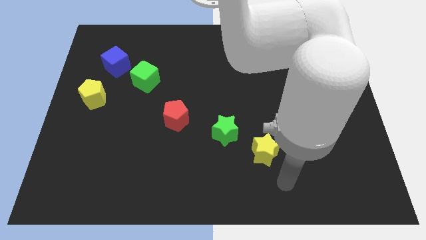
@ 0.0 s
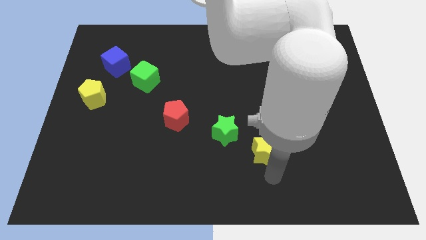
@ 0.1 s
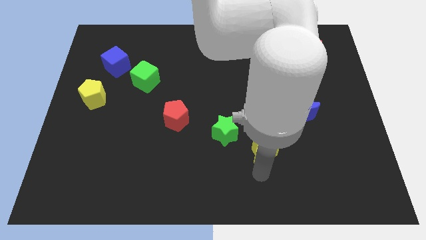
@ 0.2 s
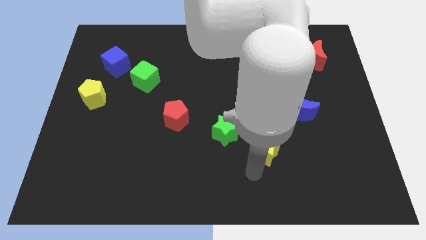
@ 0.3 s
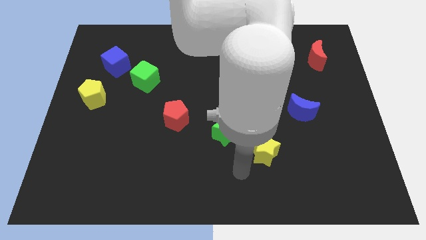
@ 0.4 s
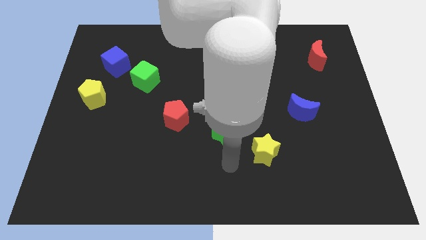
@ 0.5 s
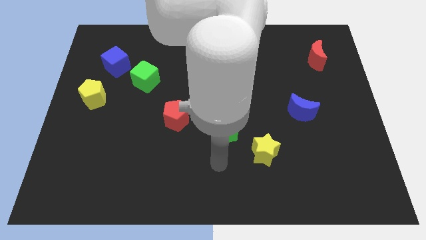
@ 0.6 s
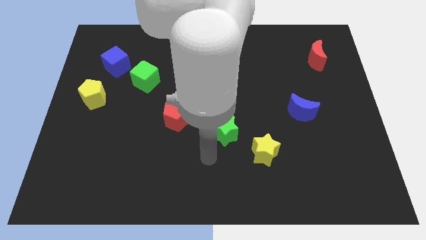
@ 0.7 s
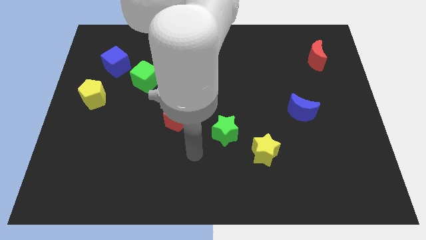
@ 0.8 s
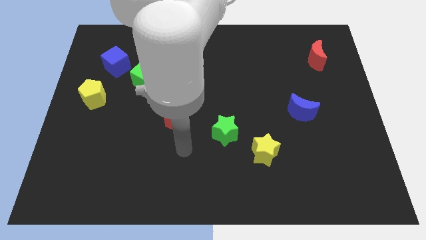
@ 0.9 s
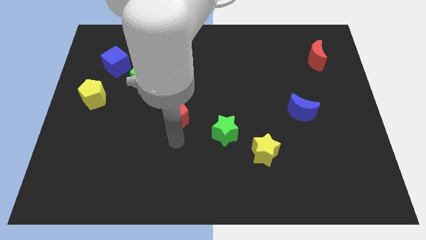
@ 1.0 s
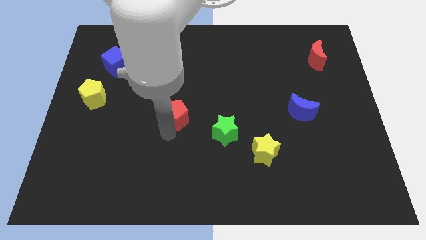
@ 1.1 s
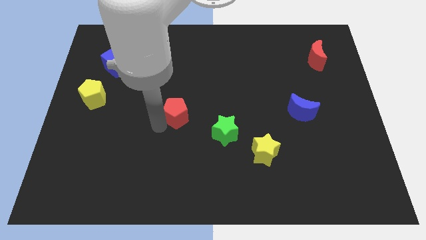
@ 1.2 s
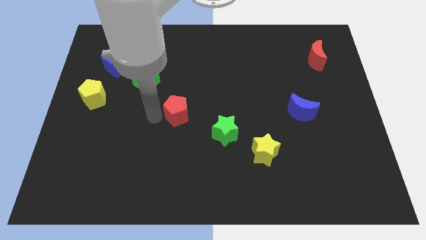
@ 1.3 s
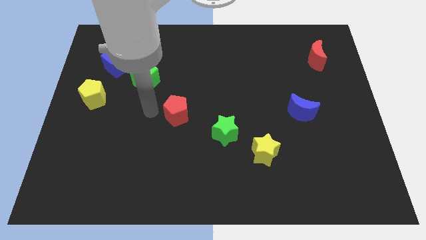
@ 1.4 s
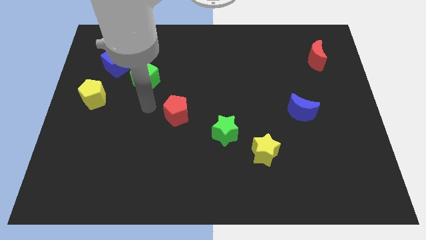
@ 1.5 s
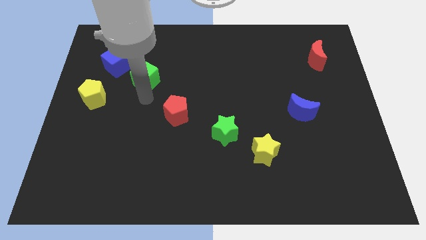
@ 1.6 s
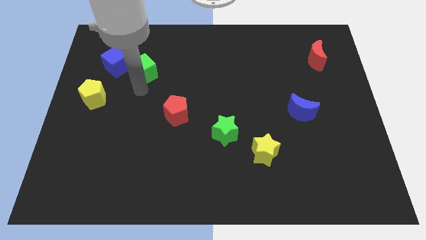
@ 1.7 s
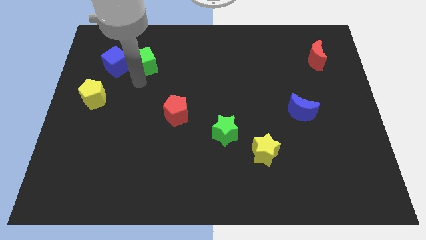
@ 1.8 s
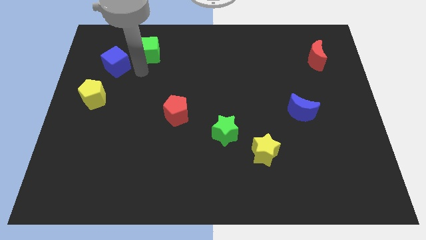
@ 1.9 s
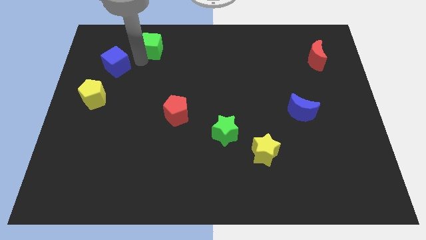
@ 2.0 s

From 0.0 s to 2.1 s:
move the blue cube away from the green cube

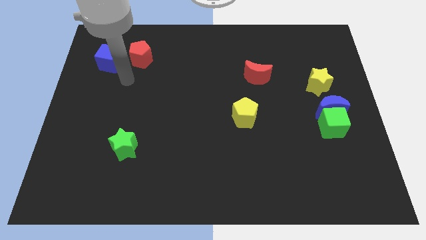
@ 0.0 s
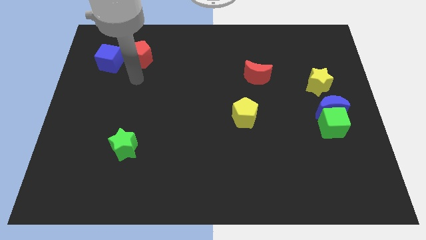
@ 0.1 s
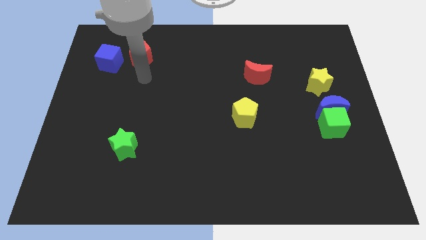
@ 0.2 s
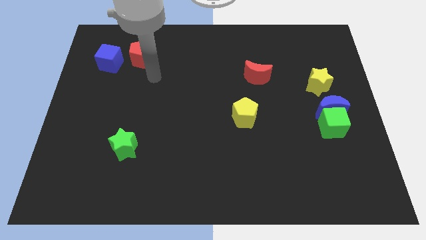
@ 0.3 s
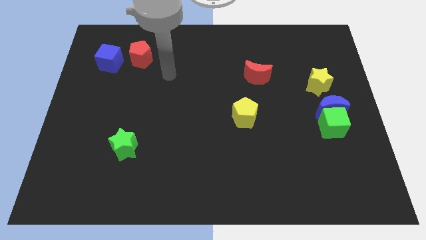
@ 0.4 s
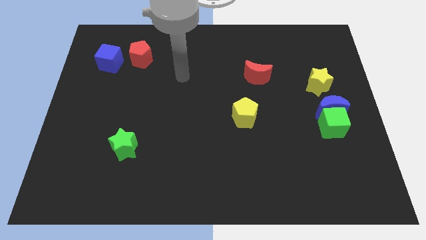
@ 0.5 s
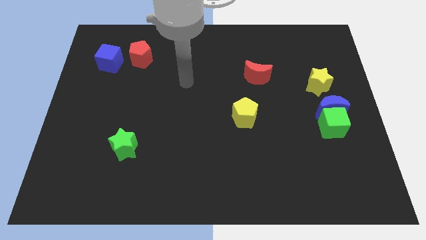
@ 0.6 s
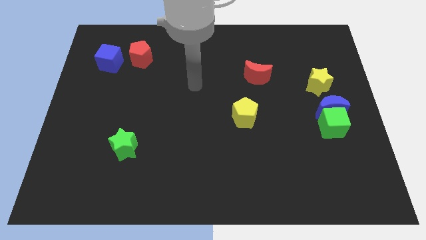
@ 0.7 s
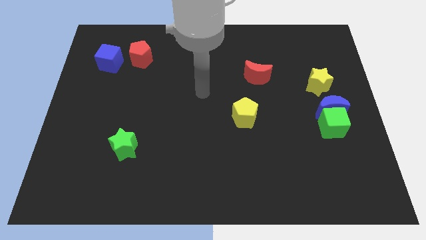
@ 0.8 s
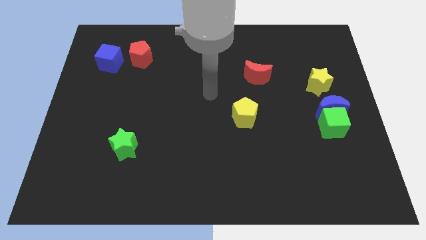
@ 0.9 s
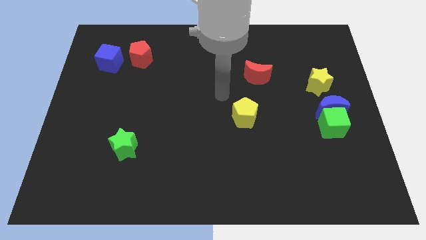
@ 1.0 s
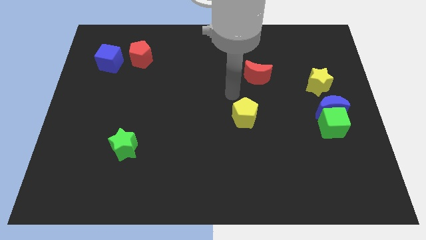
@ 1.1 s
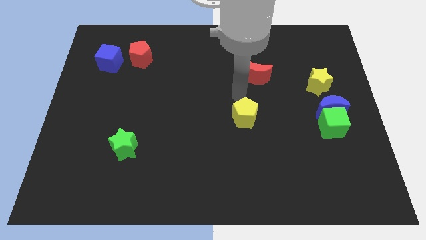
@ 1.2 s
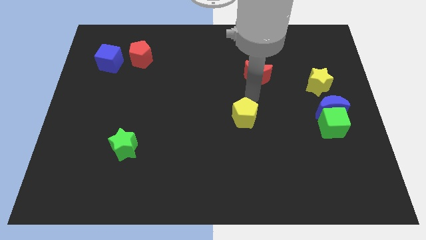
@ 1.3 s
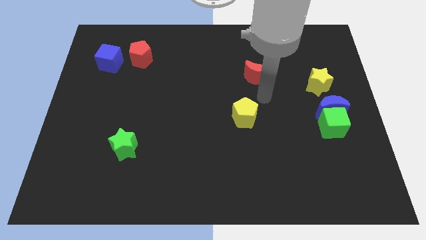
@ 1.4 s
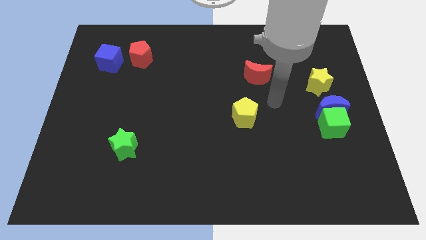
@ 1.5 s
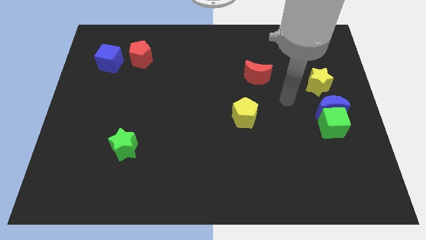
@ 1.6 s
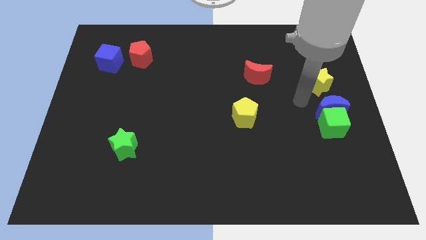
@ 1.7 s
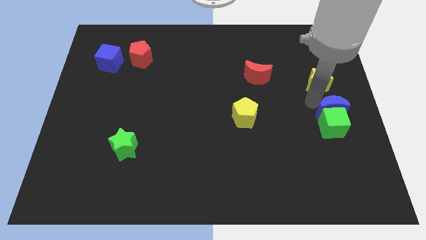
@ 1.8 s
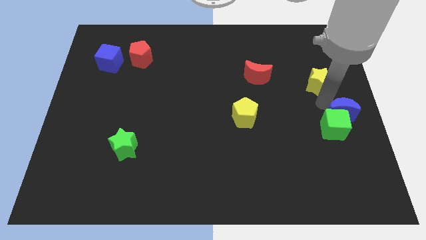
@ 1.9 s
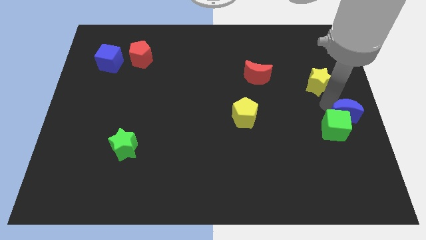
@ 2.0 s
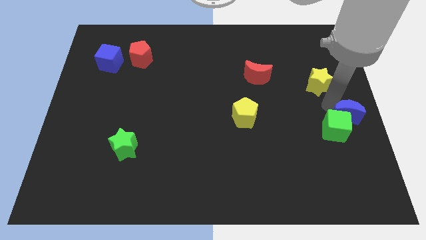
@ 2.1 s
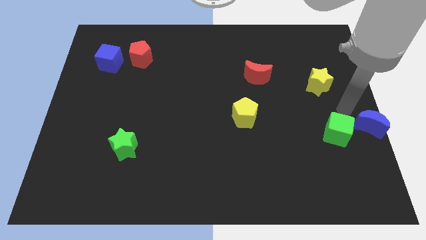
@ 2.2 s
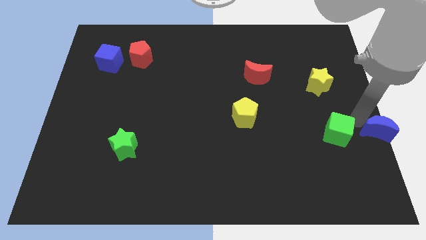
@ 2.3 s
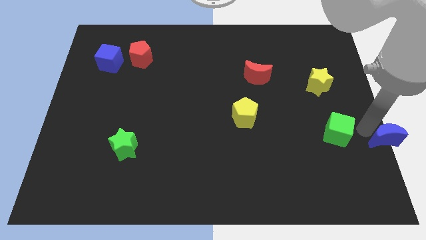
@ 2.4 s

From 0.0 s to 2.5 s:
pull the green cube apart from the blue moon

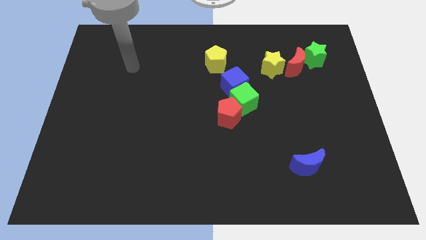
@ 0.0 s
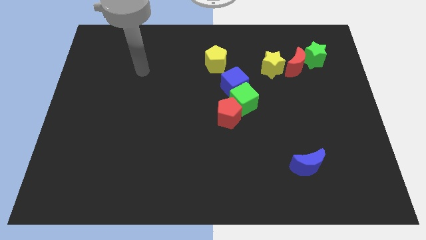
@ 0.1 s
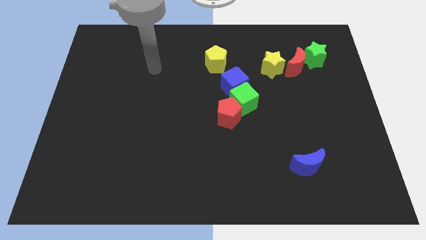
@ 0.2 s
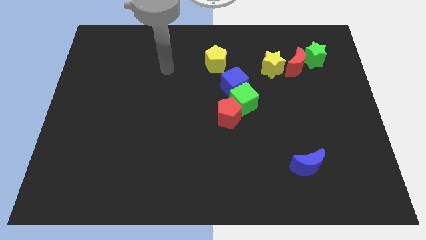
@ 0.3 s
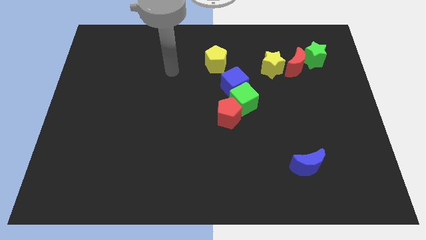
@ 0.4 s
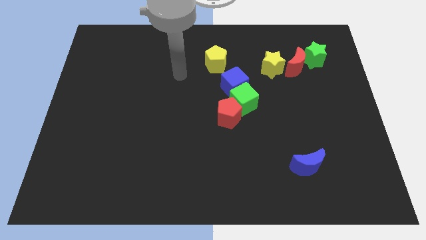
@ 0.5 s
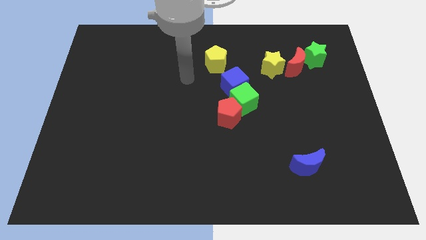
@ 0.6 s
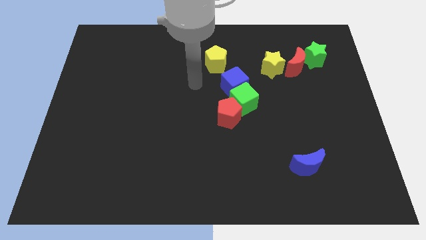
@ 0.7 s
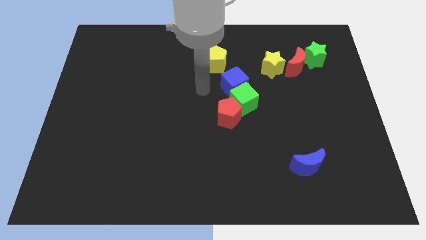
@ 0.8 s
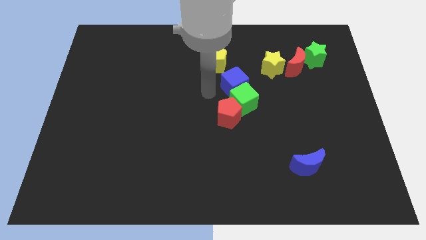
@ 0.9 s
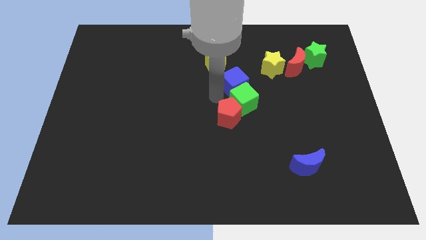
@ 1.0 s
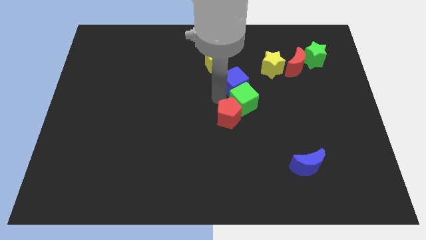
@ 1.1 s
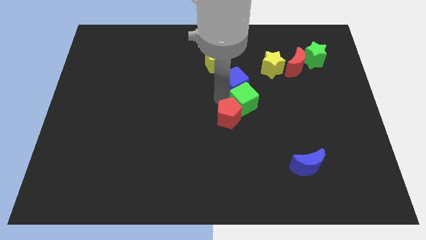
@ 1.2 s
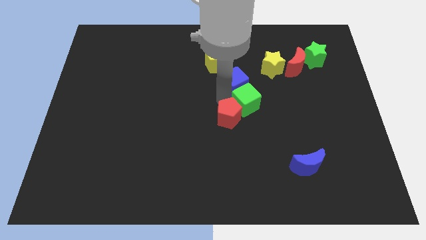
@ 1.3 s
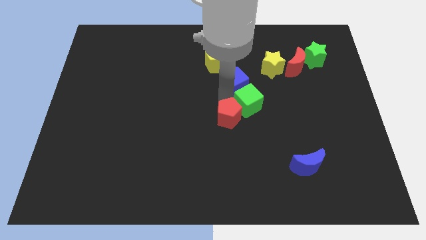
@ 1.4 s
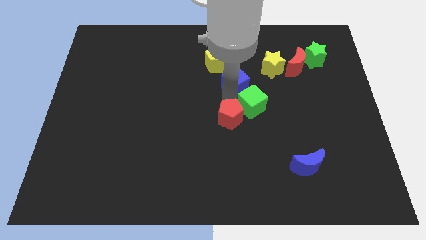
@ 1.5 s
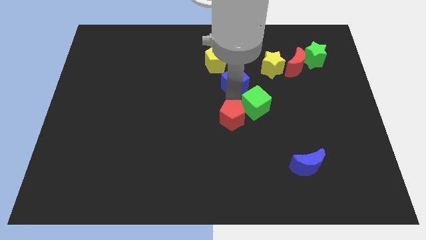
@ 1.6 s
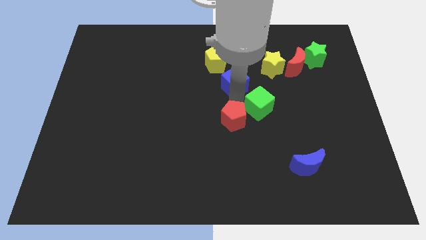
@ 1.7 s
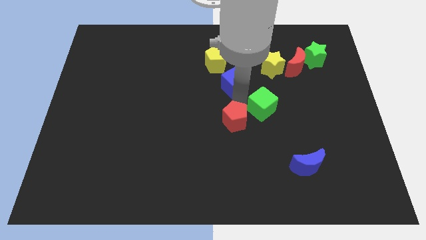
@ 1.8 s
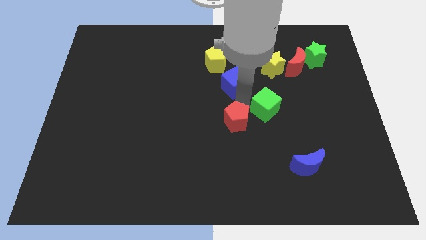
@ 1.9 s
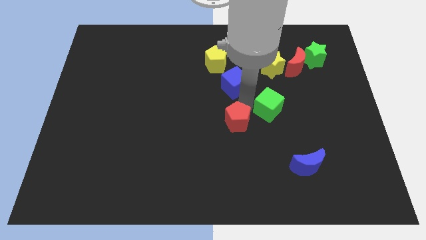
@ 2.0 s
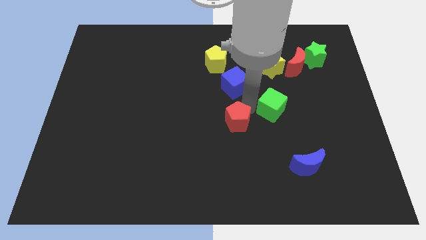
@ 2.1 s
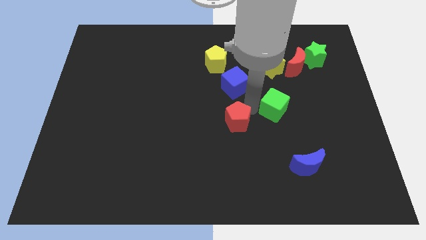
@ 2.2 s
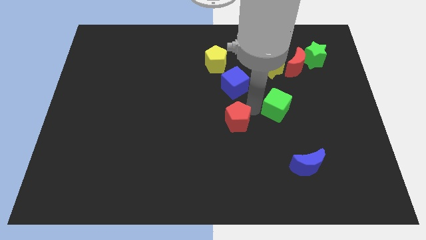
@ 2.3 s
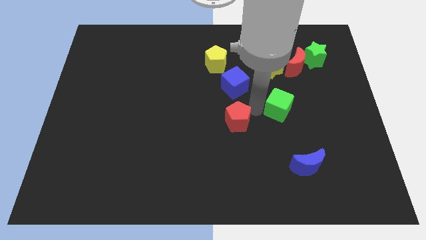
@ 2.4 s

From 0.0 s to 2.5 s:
move the green cube away from the red pentagon and blue cube

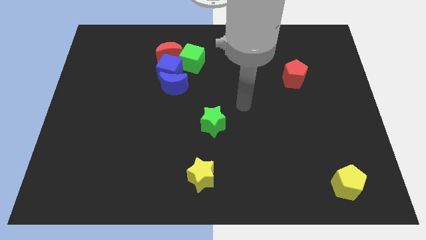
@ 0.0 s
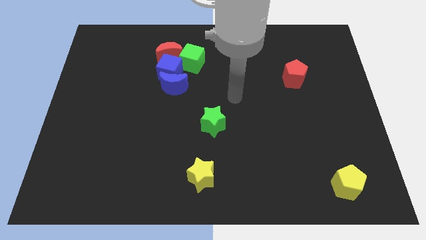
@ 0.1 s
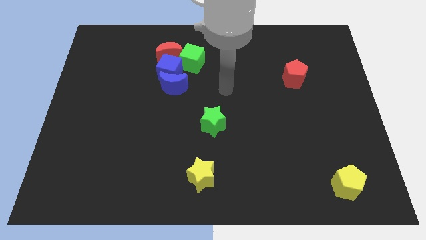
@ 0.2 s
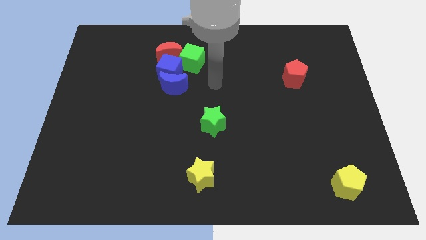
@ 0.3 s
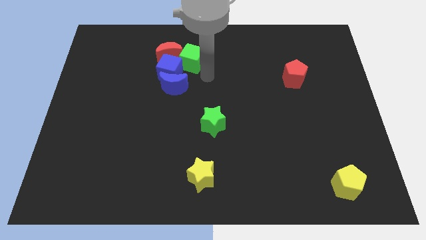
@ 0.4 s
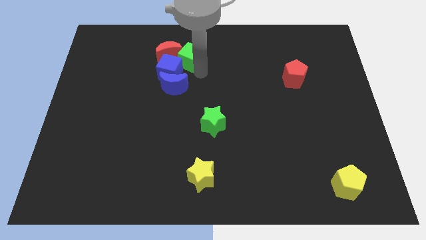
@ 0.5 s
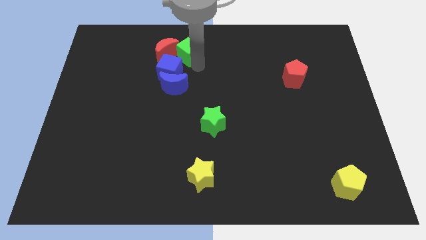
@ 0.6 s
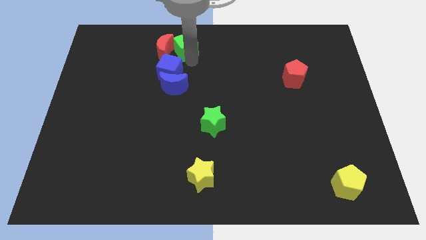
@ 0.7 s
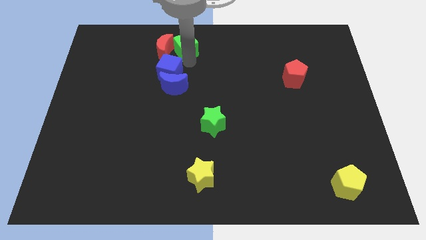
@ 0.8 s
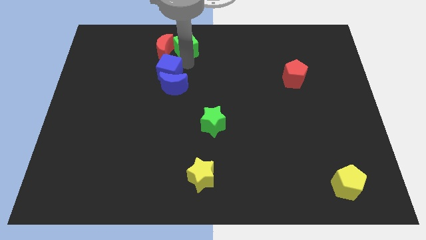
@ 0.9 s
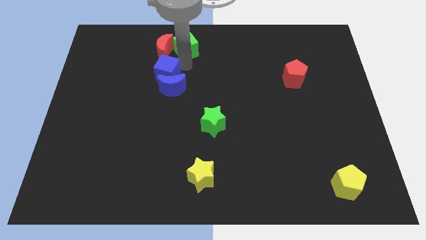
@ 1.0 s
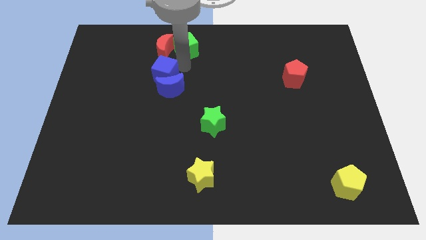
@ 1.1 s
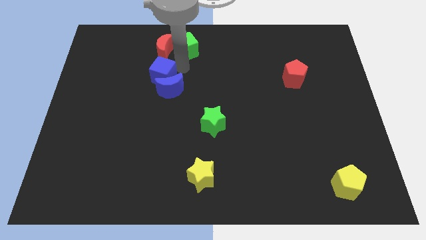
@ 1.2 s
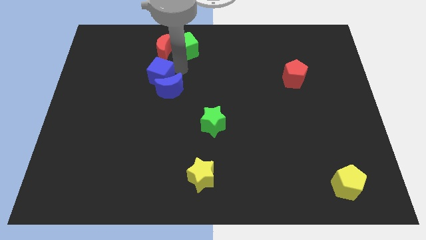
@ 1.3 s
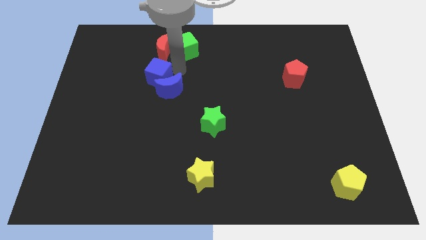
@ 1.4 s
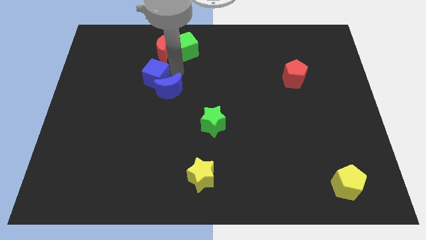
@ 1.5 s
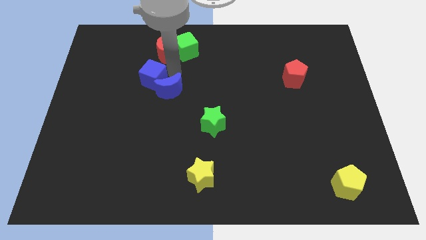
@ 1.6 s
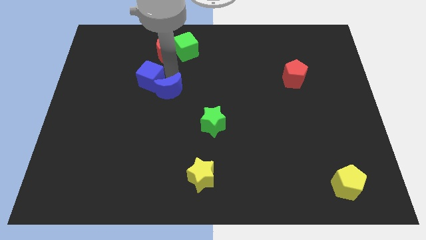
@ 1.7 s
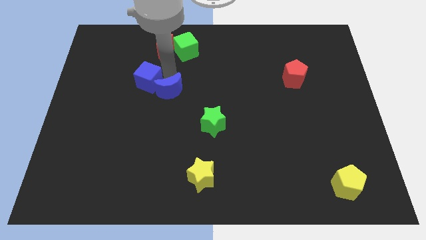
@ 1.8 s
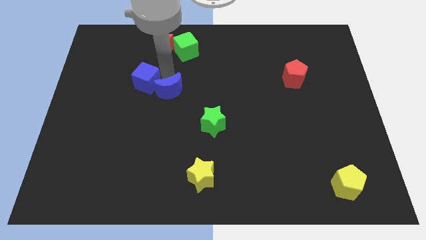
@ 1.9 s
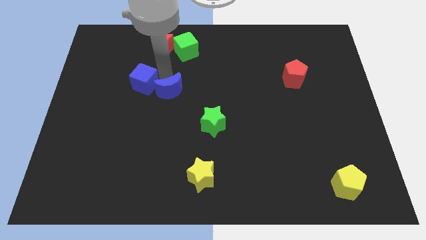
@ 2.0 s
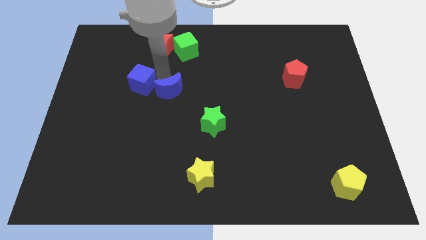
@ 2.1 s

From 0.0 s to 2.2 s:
move the blue cube away from the group
